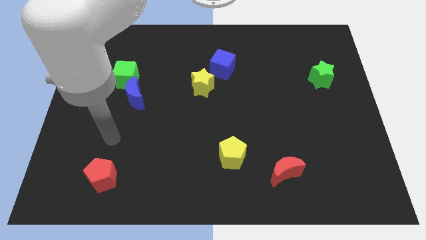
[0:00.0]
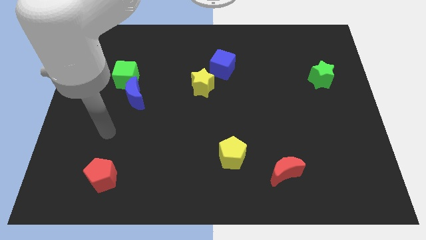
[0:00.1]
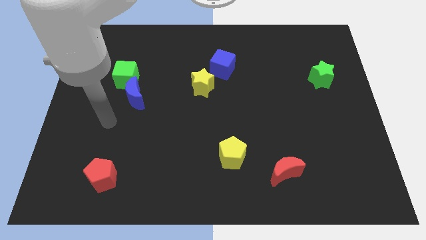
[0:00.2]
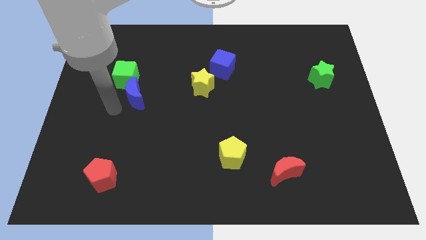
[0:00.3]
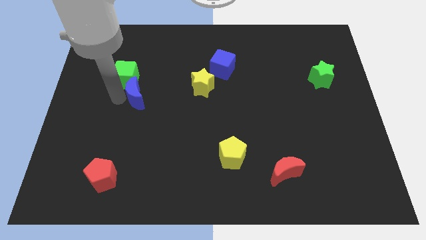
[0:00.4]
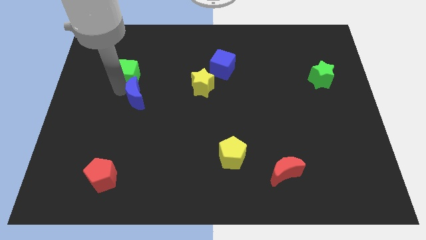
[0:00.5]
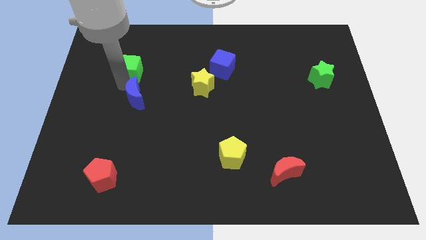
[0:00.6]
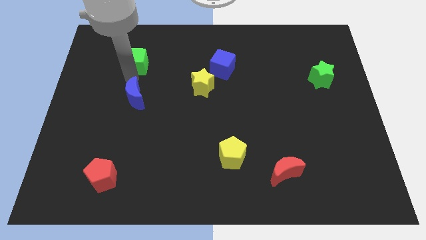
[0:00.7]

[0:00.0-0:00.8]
move the blue moon away from the green cube

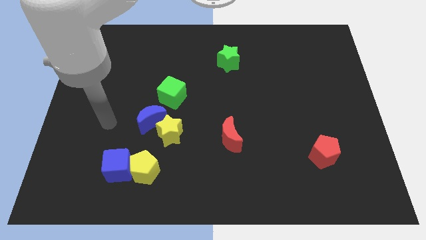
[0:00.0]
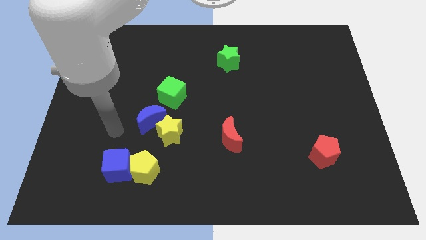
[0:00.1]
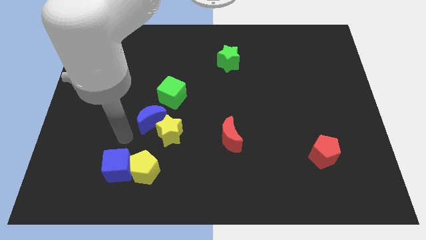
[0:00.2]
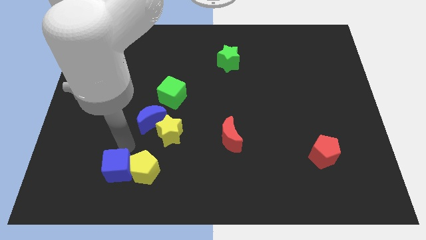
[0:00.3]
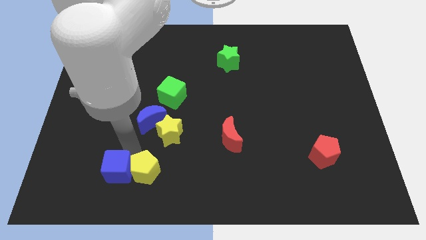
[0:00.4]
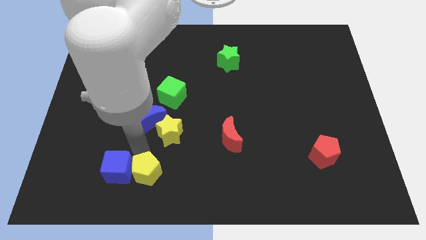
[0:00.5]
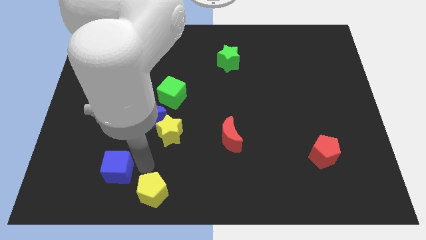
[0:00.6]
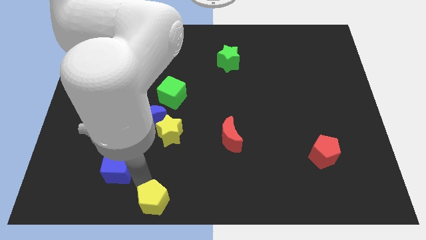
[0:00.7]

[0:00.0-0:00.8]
pull the blue cube apart from the yellow pentagon

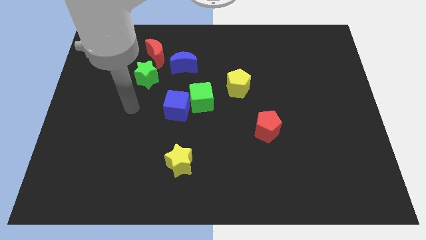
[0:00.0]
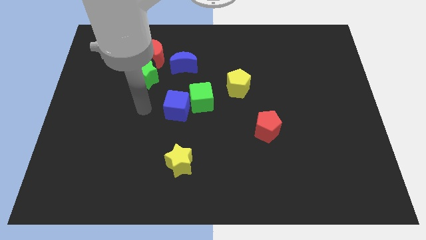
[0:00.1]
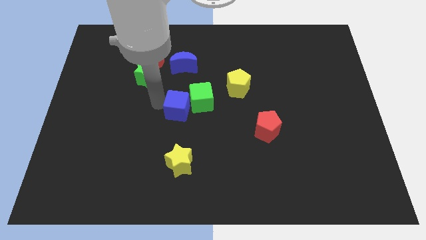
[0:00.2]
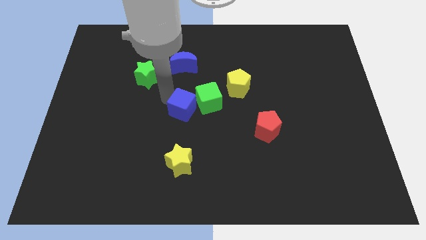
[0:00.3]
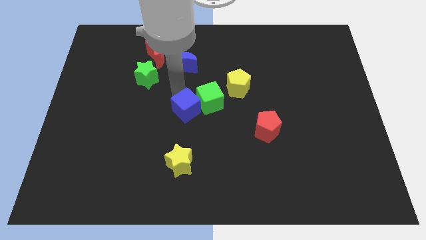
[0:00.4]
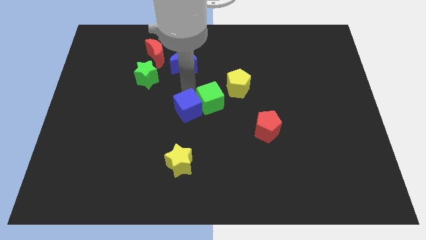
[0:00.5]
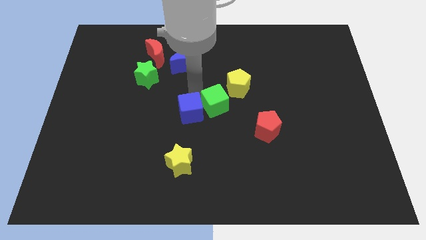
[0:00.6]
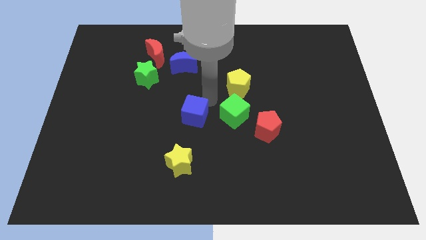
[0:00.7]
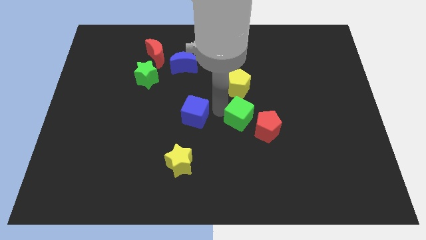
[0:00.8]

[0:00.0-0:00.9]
separate the blue cube from the green cube

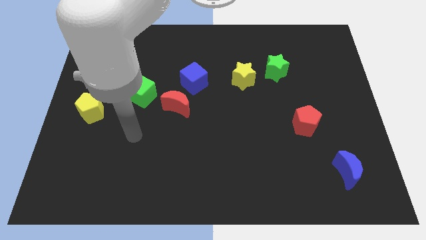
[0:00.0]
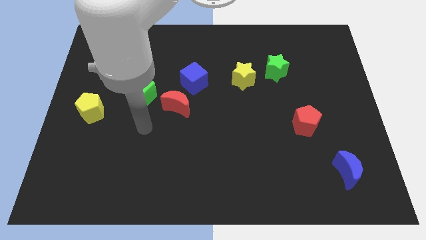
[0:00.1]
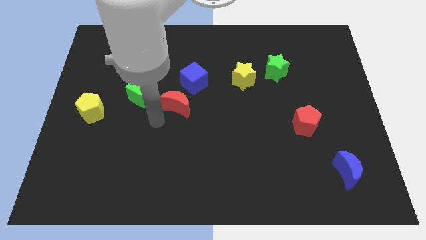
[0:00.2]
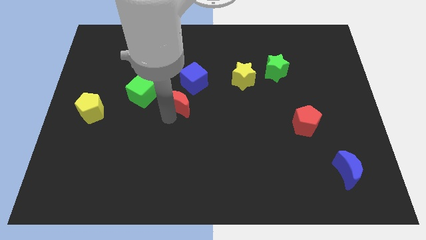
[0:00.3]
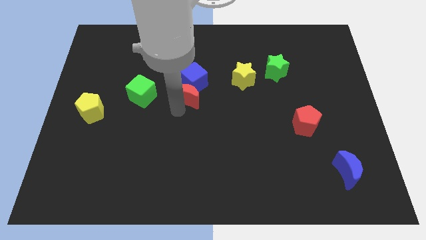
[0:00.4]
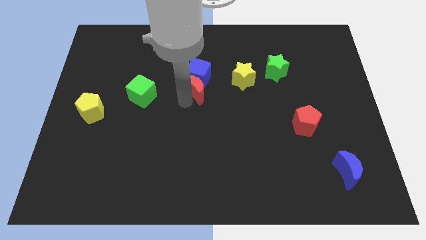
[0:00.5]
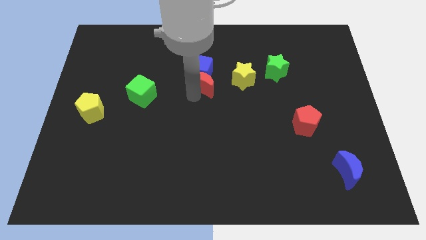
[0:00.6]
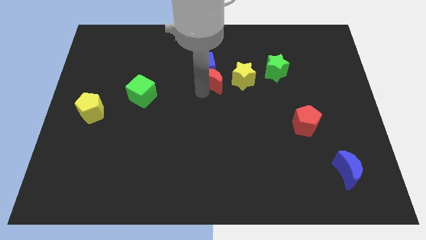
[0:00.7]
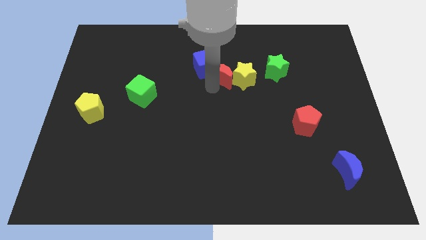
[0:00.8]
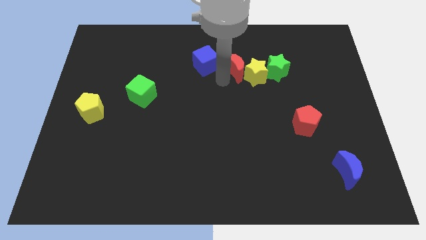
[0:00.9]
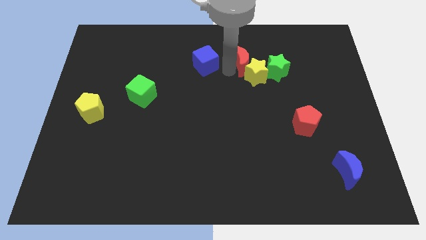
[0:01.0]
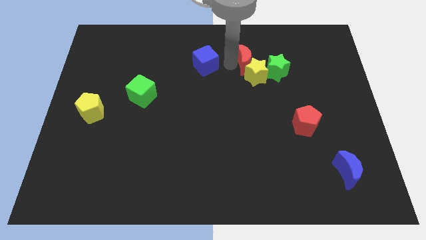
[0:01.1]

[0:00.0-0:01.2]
pull the blue cube apart from the red moon

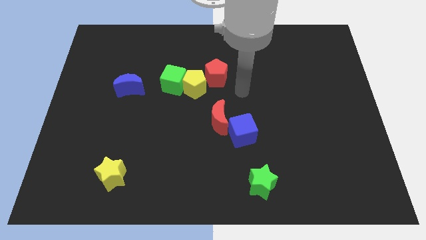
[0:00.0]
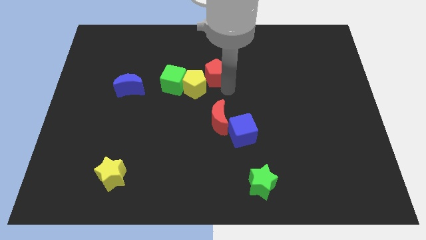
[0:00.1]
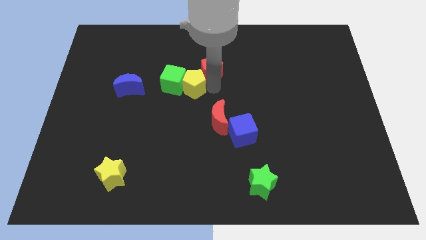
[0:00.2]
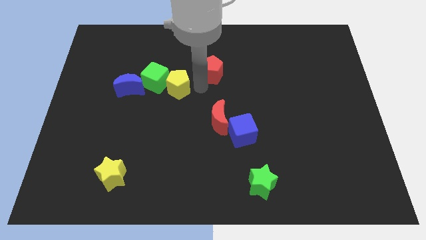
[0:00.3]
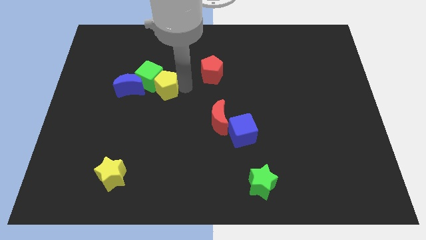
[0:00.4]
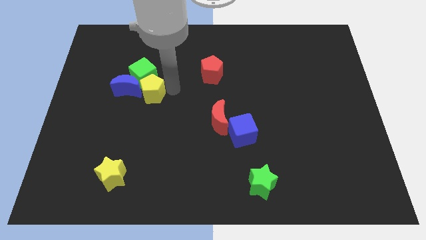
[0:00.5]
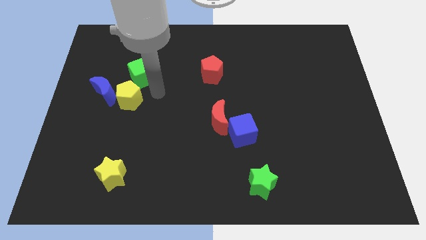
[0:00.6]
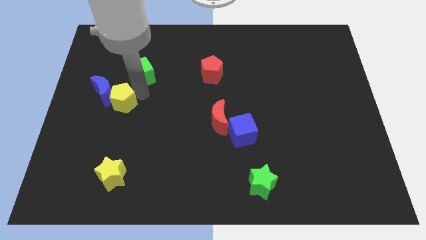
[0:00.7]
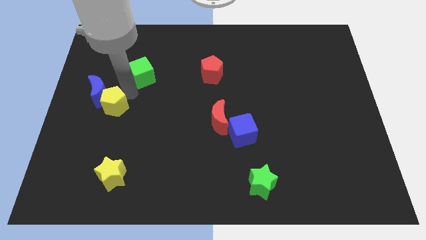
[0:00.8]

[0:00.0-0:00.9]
move the green cube away from the yellow pentagon

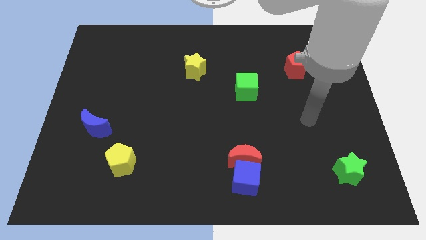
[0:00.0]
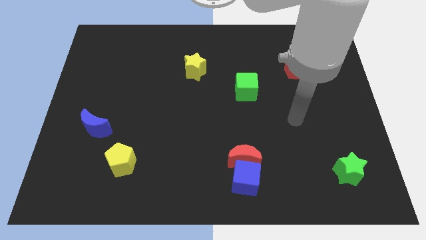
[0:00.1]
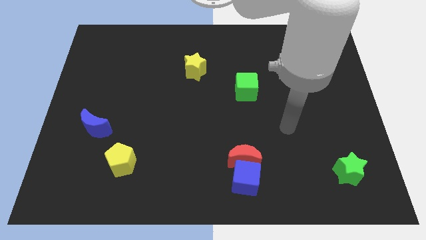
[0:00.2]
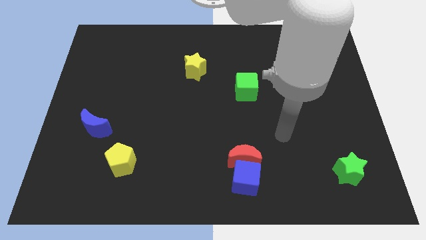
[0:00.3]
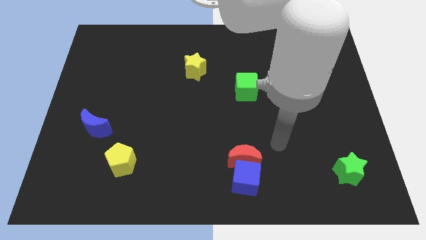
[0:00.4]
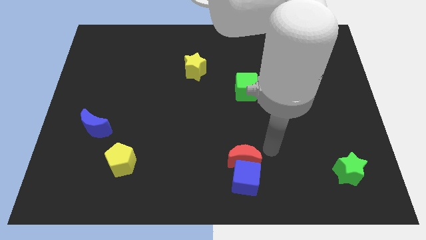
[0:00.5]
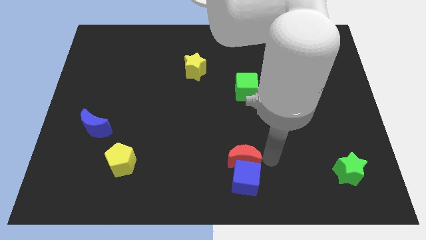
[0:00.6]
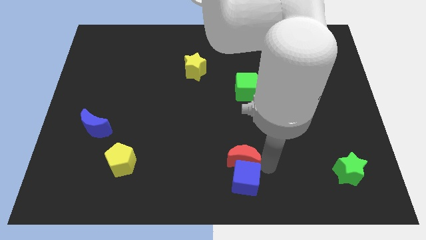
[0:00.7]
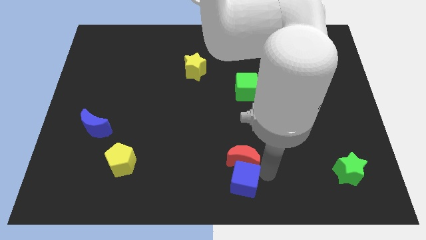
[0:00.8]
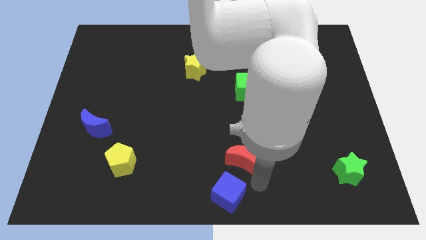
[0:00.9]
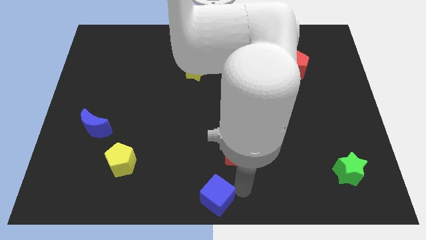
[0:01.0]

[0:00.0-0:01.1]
separate the red moon from the blue cube

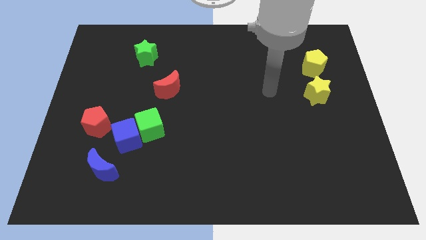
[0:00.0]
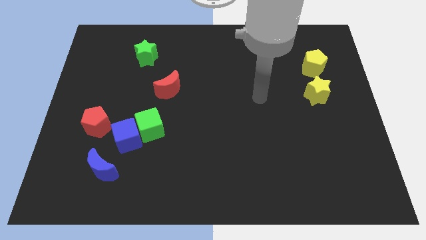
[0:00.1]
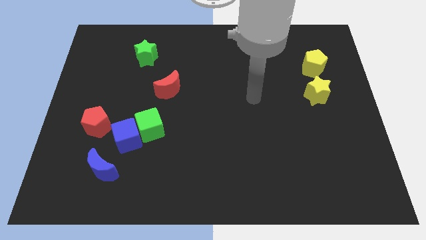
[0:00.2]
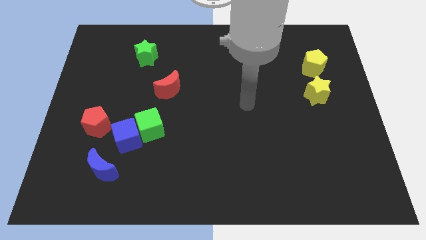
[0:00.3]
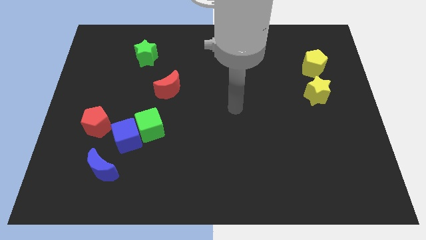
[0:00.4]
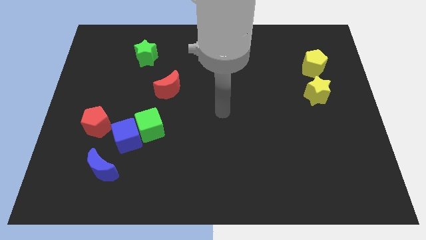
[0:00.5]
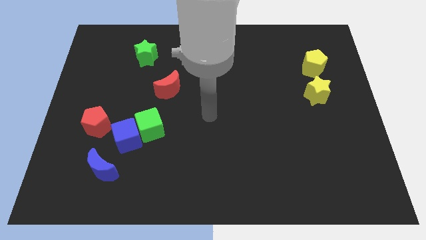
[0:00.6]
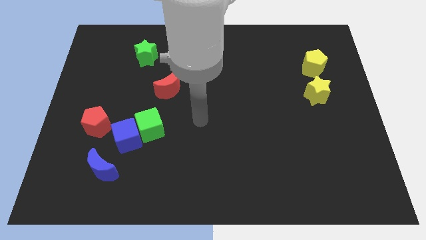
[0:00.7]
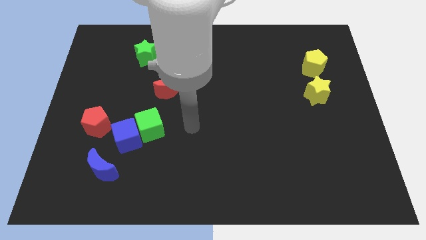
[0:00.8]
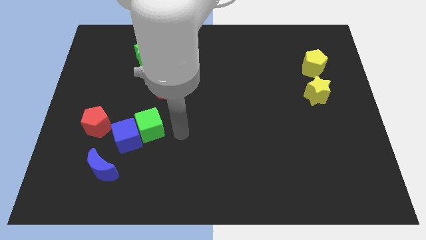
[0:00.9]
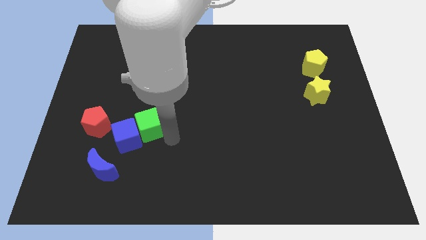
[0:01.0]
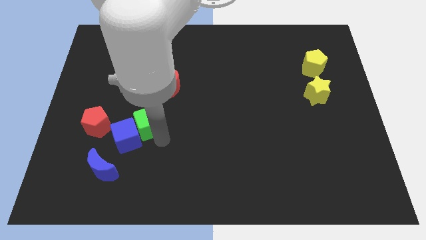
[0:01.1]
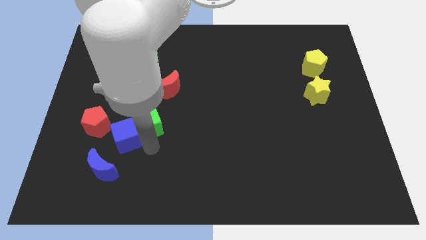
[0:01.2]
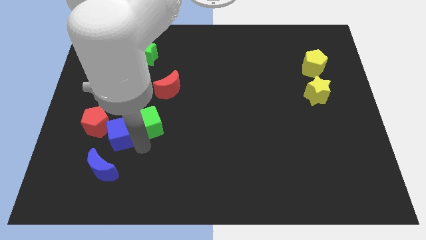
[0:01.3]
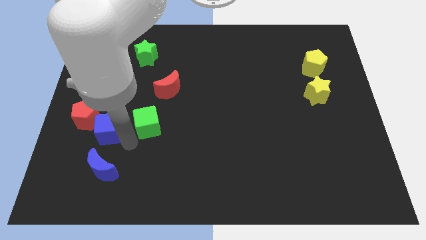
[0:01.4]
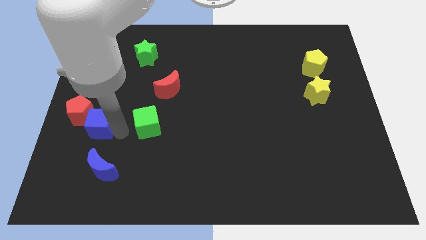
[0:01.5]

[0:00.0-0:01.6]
pull the green cube apart from the blue cube

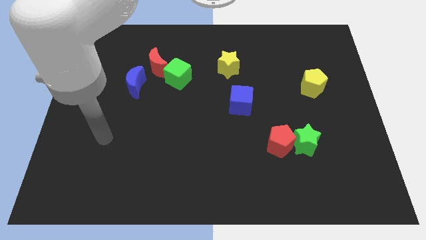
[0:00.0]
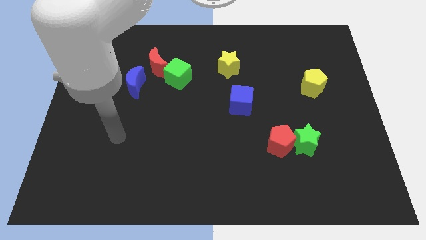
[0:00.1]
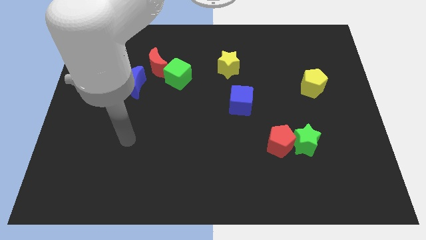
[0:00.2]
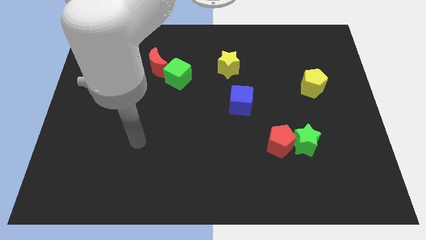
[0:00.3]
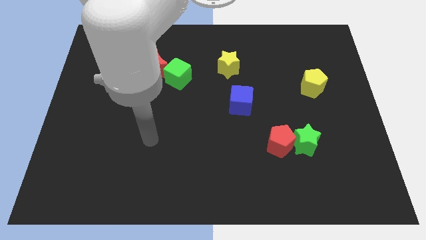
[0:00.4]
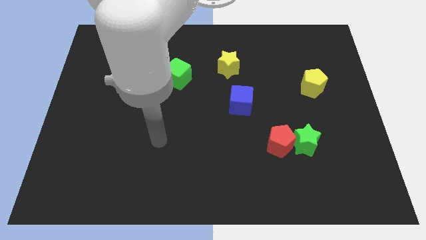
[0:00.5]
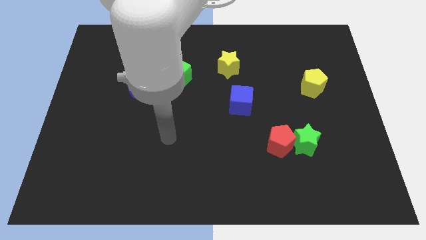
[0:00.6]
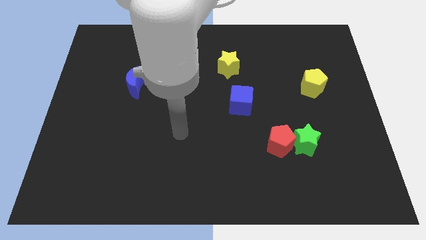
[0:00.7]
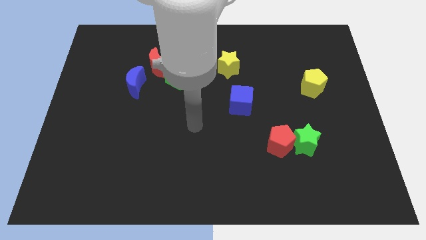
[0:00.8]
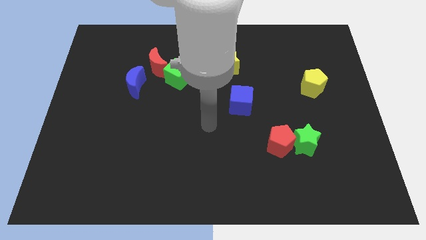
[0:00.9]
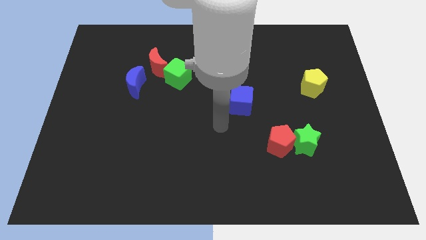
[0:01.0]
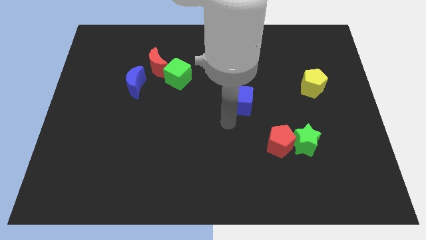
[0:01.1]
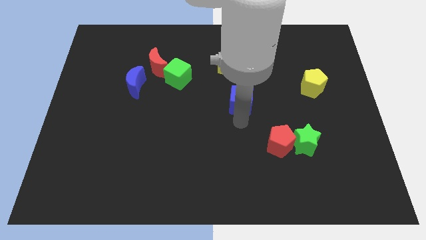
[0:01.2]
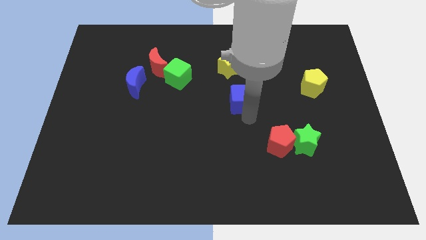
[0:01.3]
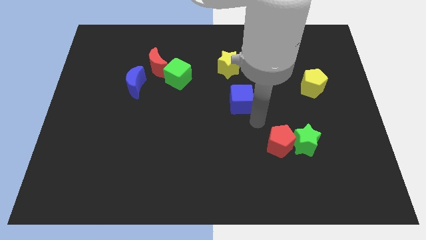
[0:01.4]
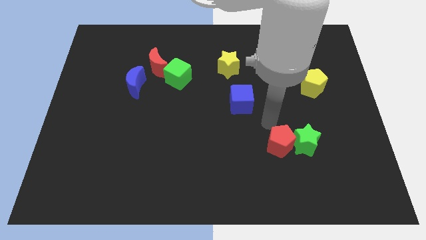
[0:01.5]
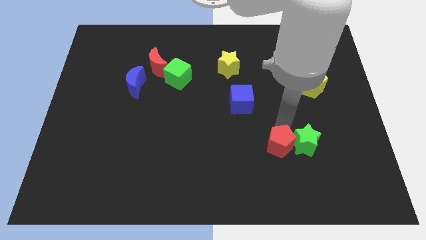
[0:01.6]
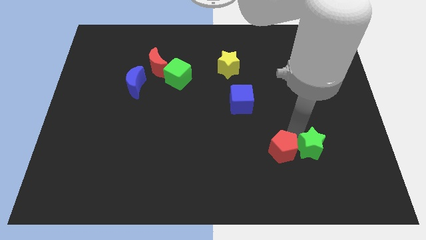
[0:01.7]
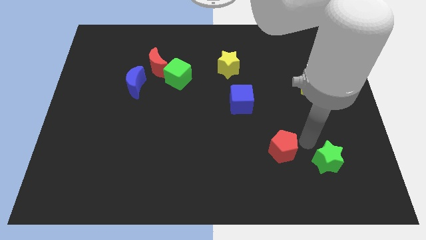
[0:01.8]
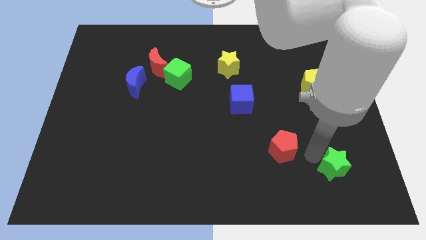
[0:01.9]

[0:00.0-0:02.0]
move the red pentagon away from the green star
